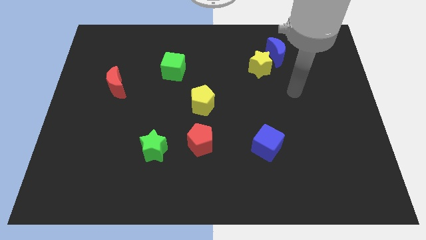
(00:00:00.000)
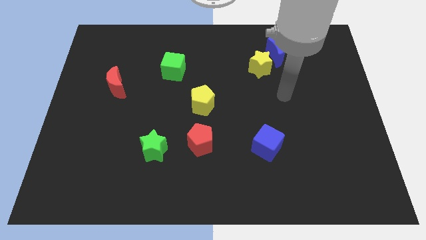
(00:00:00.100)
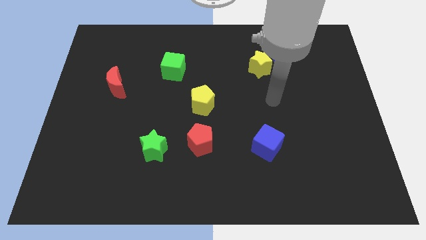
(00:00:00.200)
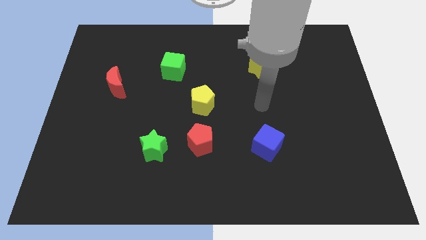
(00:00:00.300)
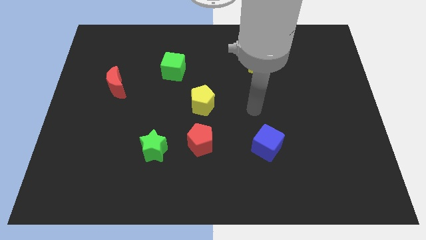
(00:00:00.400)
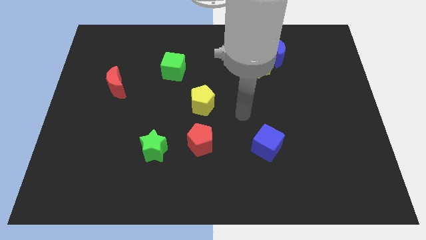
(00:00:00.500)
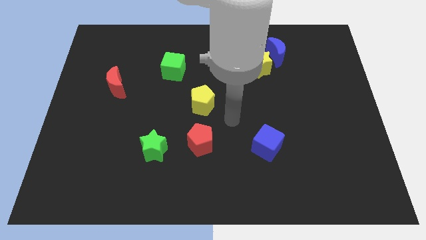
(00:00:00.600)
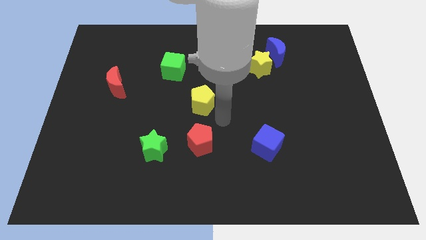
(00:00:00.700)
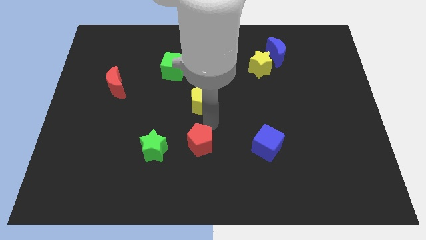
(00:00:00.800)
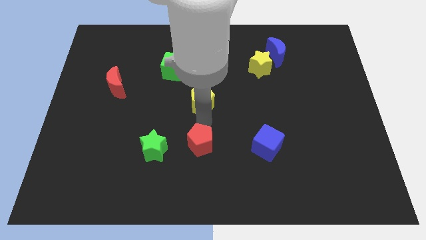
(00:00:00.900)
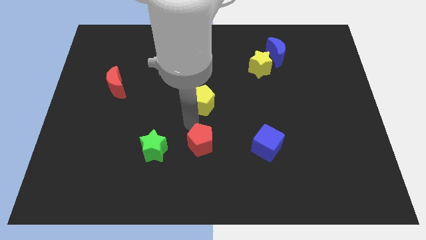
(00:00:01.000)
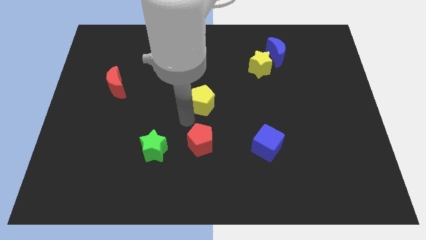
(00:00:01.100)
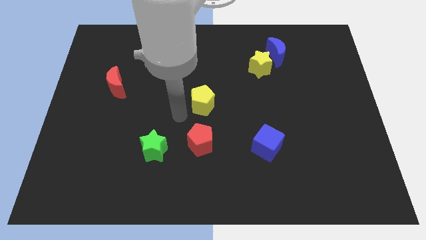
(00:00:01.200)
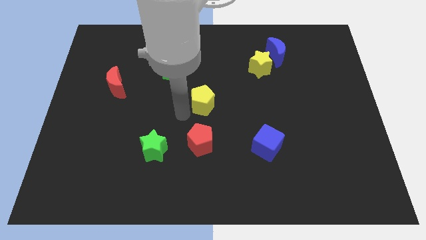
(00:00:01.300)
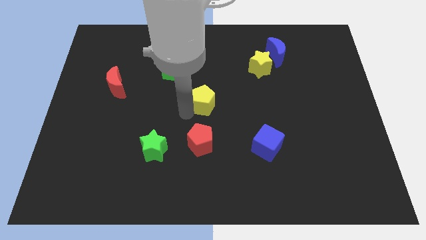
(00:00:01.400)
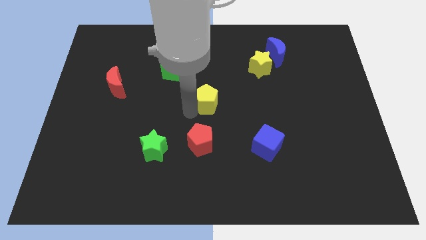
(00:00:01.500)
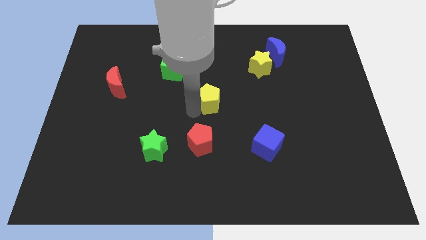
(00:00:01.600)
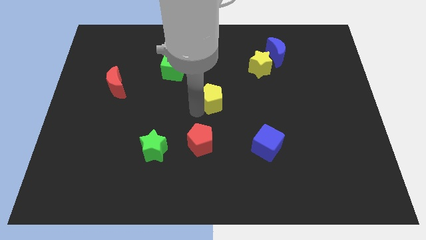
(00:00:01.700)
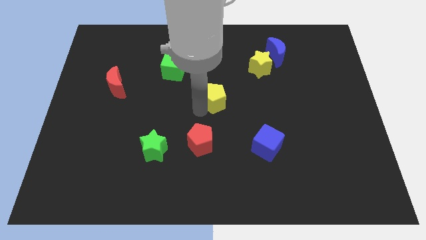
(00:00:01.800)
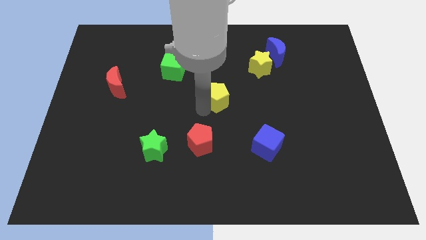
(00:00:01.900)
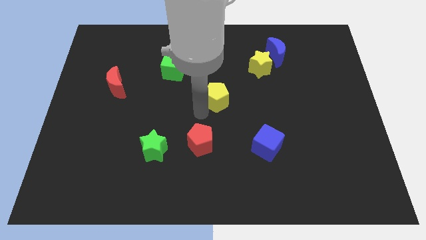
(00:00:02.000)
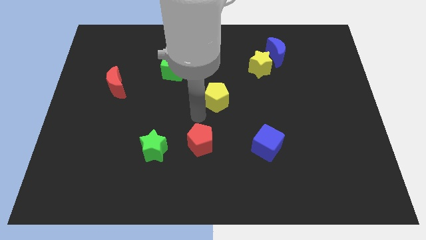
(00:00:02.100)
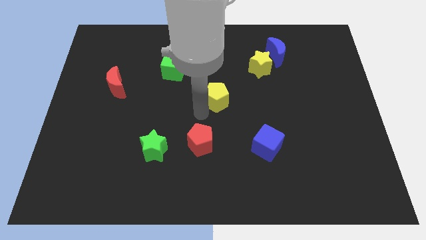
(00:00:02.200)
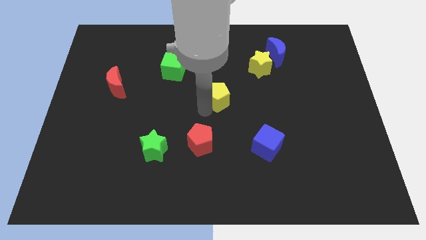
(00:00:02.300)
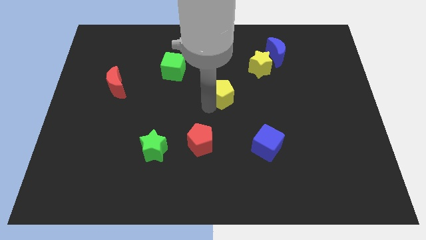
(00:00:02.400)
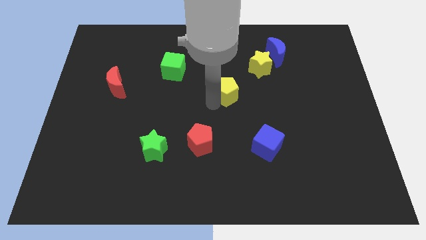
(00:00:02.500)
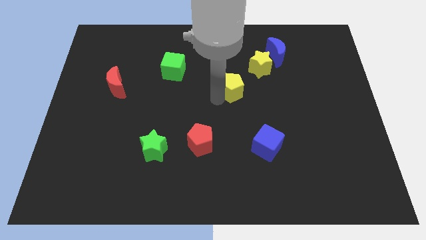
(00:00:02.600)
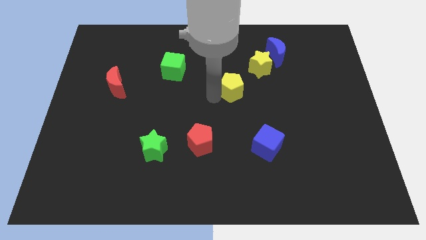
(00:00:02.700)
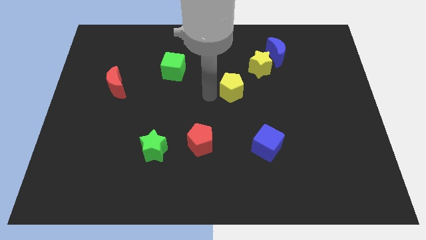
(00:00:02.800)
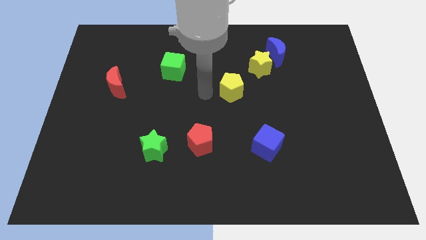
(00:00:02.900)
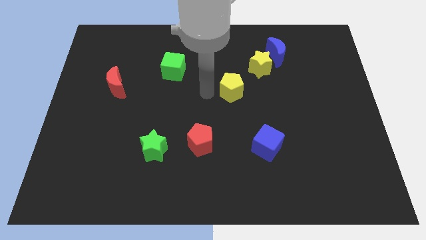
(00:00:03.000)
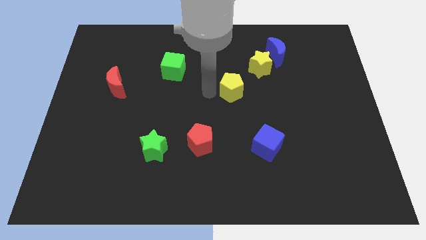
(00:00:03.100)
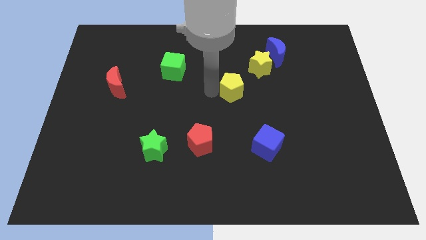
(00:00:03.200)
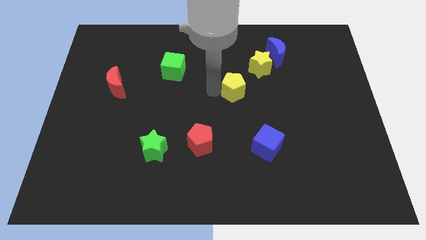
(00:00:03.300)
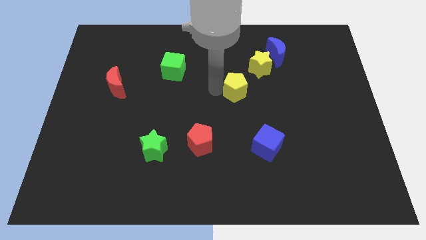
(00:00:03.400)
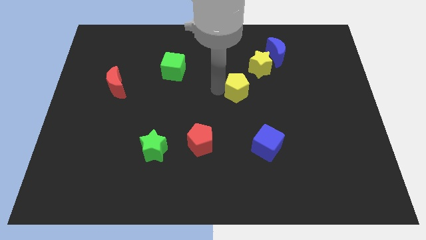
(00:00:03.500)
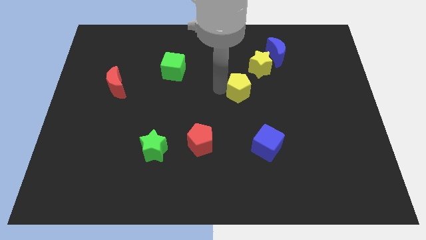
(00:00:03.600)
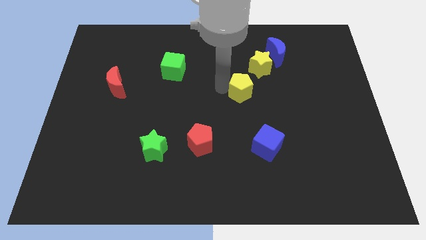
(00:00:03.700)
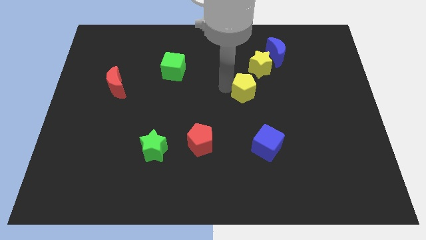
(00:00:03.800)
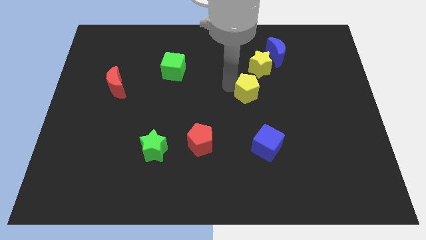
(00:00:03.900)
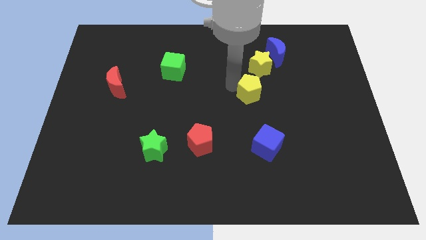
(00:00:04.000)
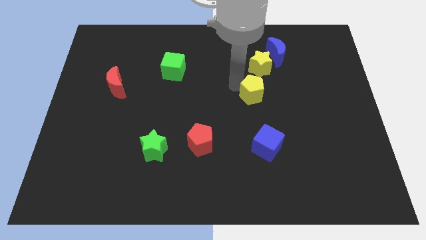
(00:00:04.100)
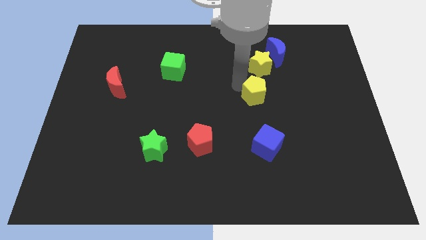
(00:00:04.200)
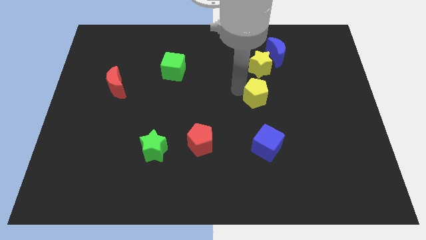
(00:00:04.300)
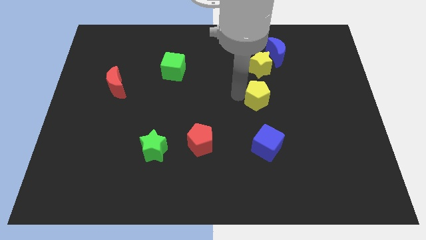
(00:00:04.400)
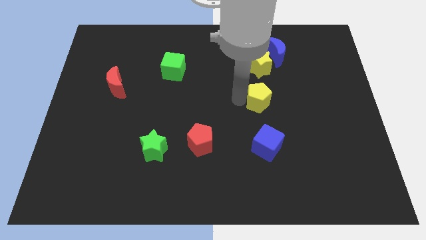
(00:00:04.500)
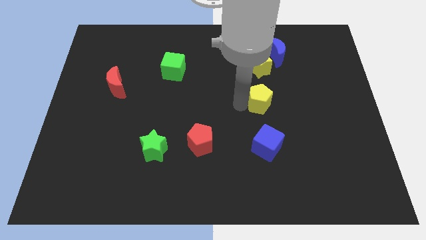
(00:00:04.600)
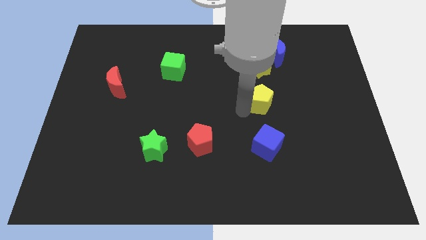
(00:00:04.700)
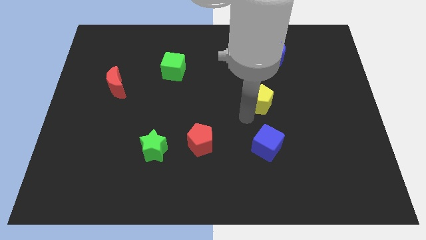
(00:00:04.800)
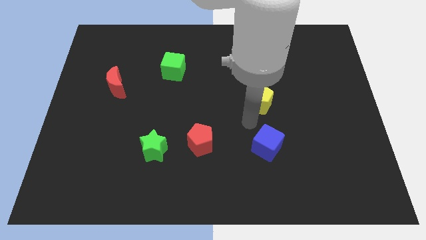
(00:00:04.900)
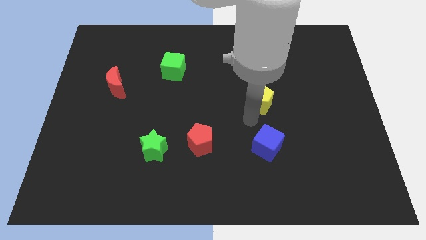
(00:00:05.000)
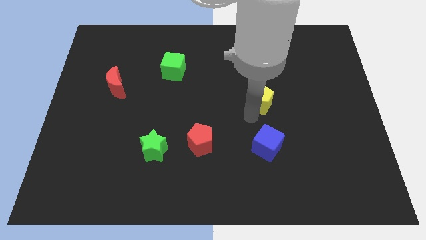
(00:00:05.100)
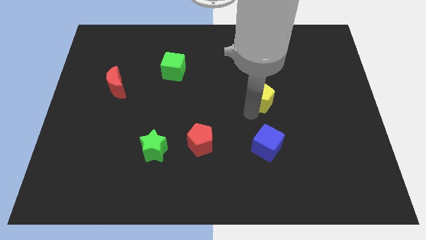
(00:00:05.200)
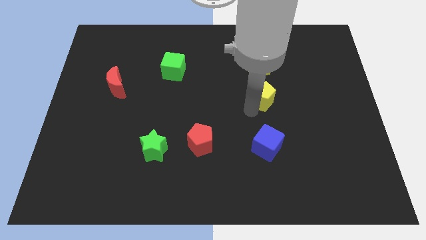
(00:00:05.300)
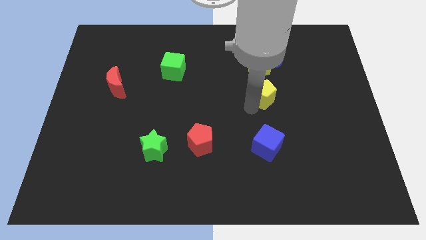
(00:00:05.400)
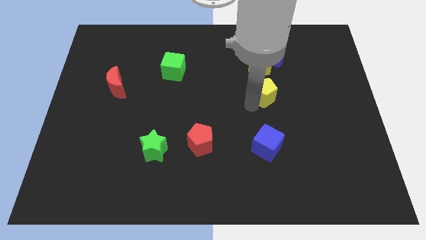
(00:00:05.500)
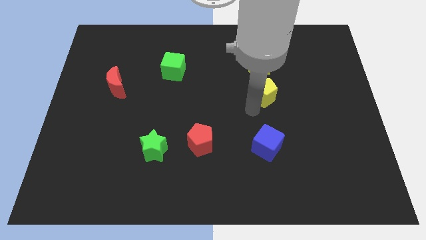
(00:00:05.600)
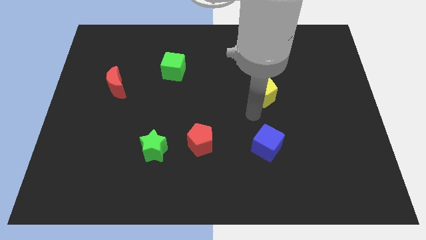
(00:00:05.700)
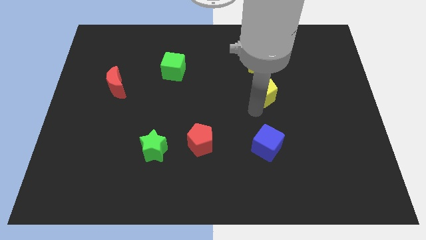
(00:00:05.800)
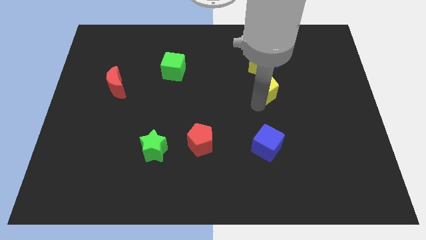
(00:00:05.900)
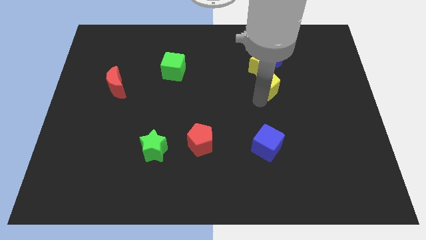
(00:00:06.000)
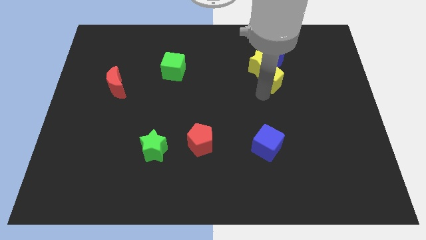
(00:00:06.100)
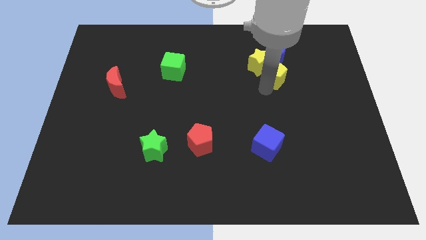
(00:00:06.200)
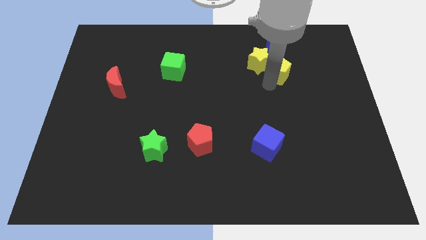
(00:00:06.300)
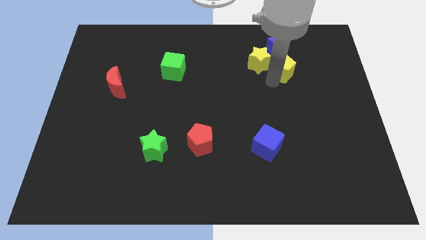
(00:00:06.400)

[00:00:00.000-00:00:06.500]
move the yellow pentagon towards the blue moon

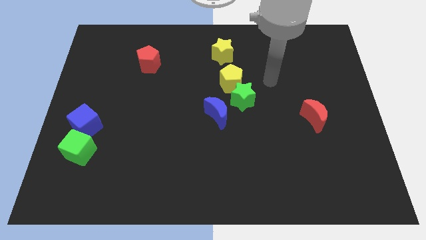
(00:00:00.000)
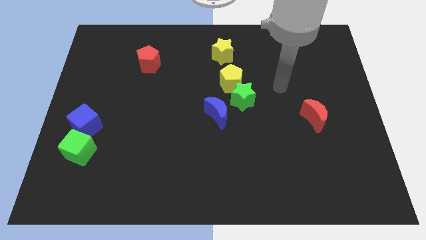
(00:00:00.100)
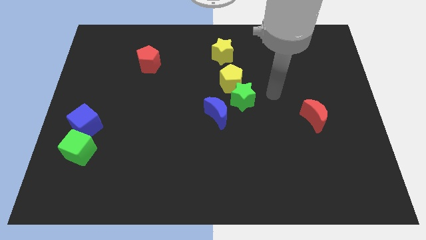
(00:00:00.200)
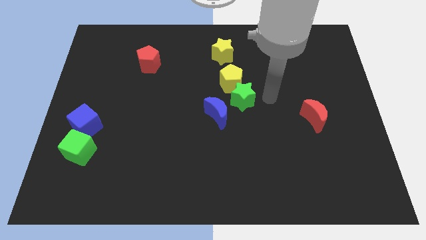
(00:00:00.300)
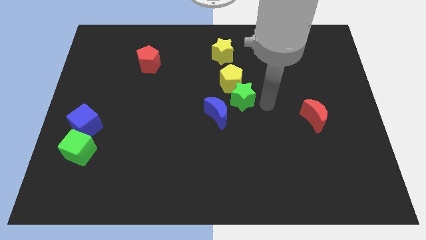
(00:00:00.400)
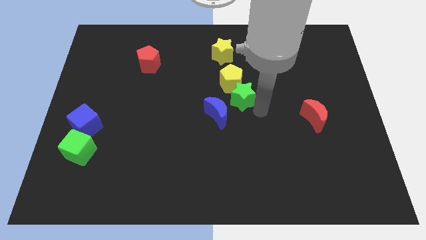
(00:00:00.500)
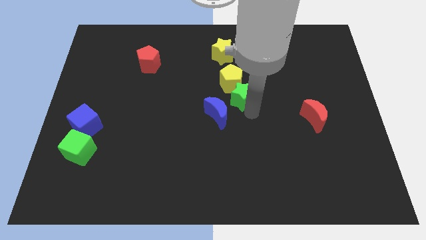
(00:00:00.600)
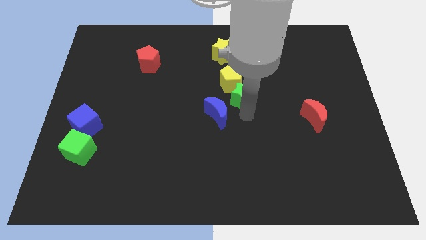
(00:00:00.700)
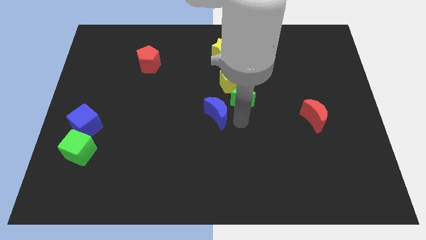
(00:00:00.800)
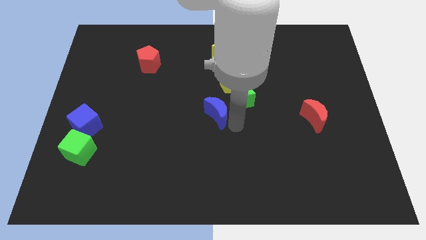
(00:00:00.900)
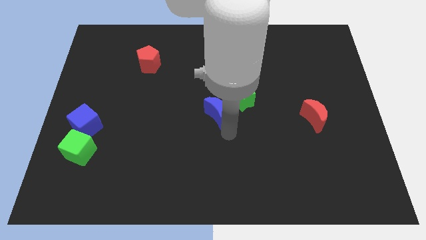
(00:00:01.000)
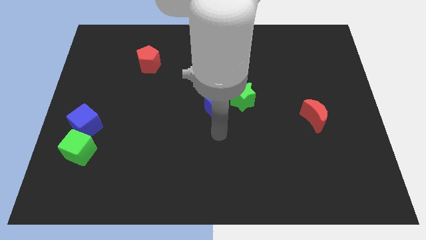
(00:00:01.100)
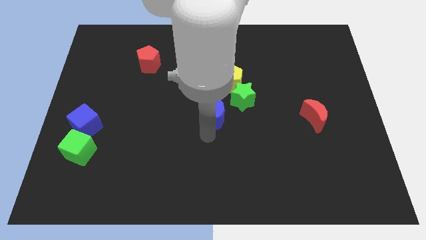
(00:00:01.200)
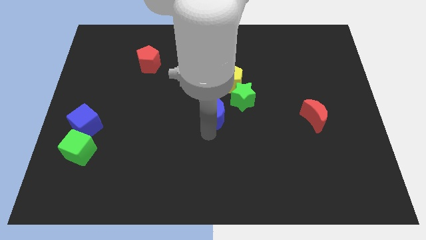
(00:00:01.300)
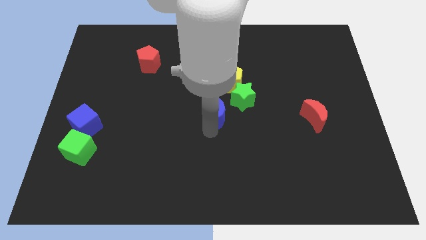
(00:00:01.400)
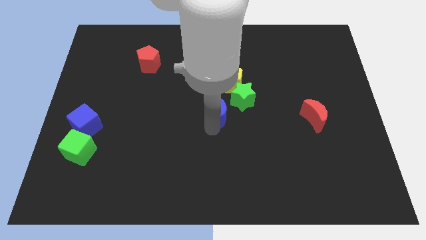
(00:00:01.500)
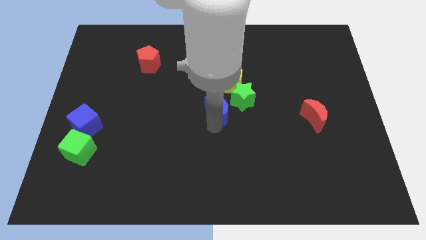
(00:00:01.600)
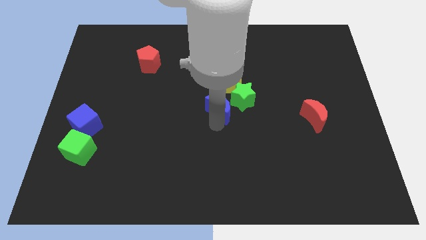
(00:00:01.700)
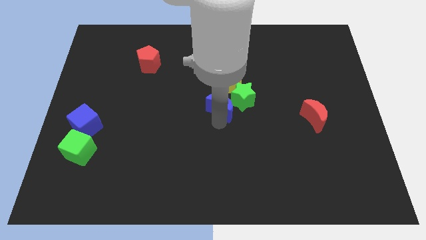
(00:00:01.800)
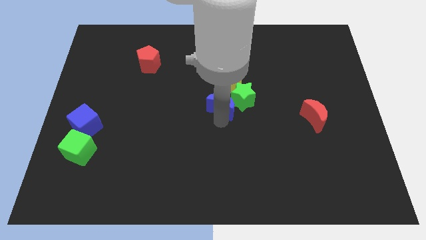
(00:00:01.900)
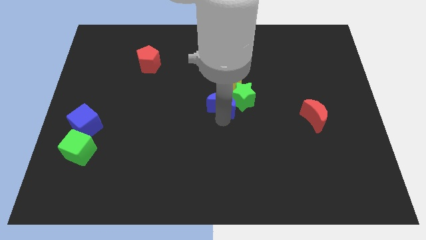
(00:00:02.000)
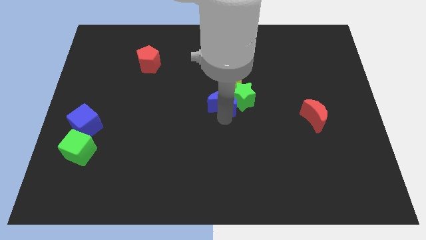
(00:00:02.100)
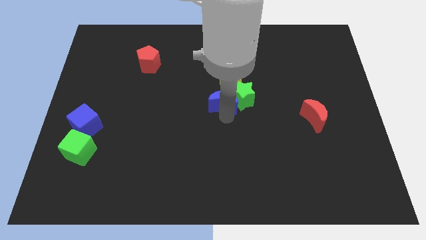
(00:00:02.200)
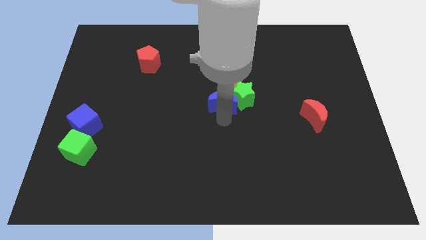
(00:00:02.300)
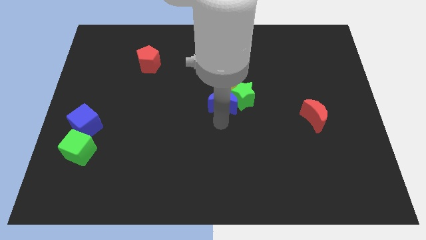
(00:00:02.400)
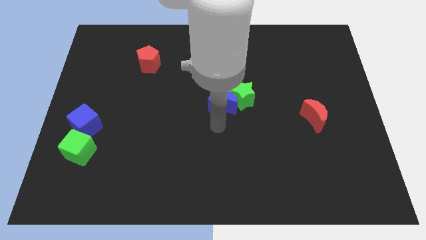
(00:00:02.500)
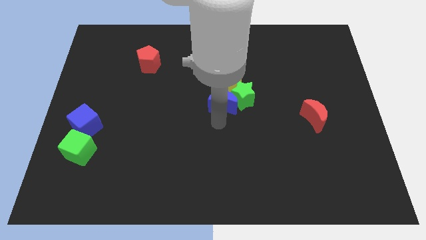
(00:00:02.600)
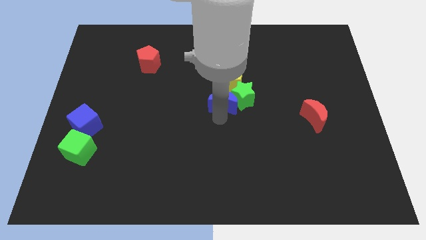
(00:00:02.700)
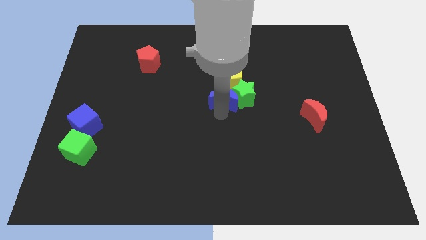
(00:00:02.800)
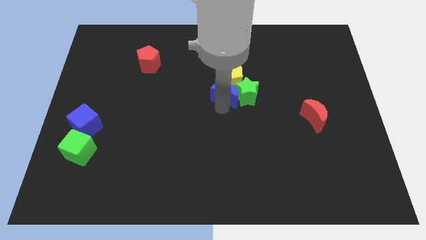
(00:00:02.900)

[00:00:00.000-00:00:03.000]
push the blue moon next to the yellow pentagon
